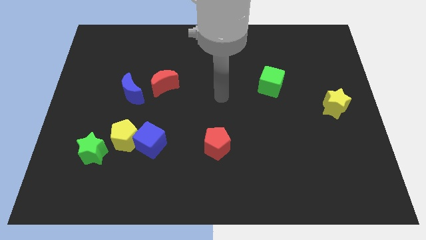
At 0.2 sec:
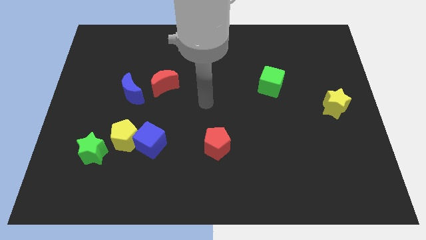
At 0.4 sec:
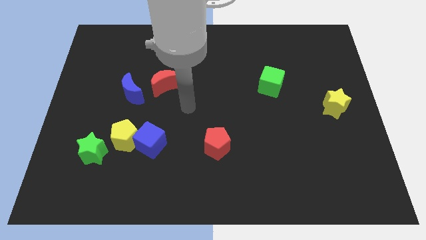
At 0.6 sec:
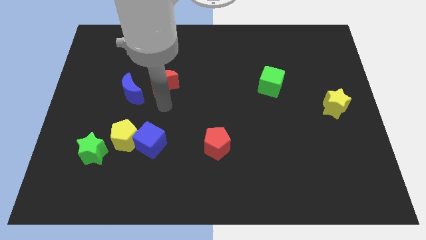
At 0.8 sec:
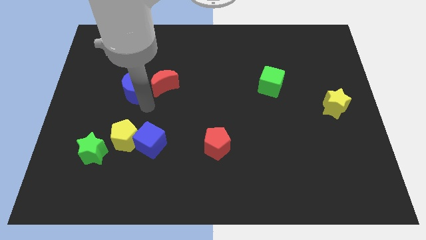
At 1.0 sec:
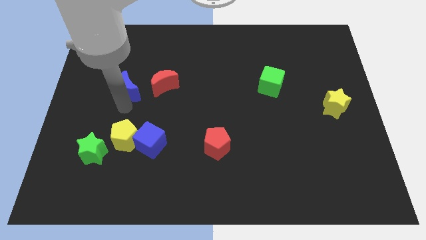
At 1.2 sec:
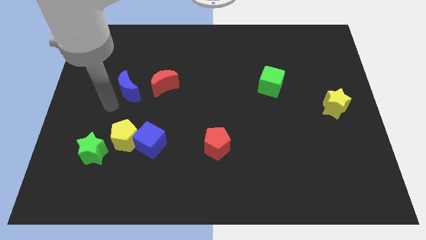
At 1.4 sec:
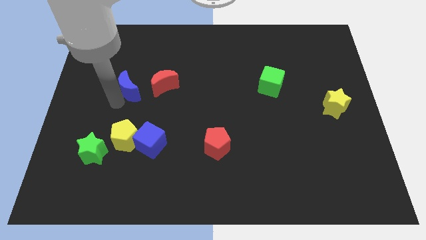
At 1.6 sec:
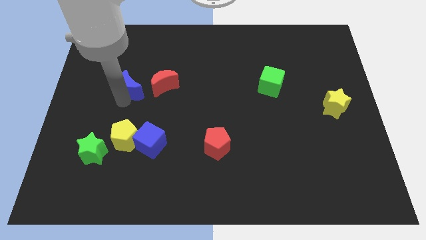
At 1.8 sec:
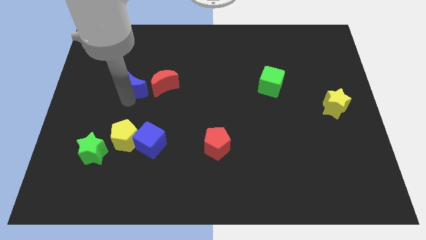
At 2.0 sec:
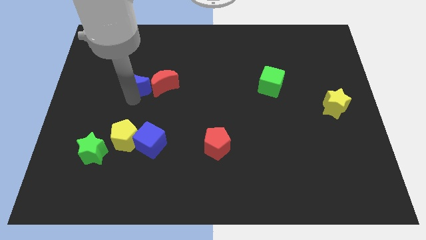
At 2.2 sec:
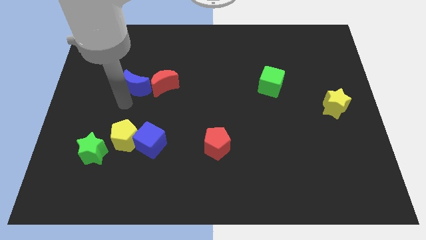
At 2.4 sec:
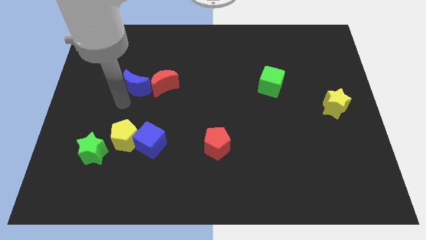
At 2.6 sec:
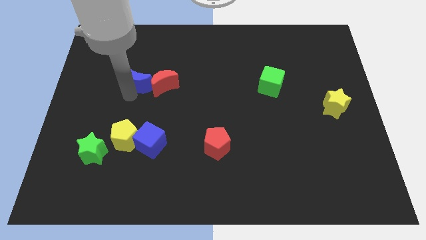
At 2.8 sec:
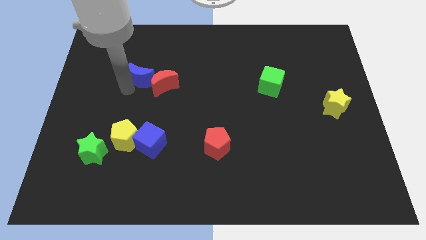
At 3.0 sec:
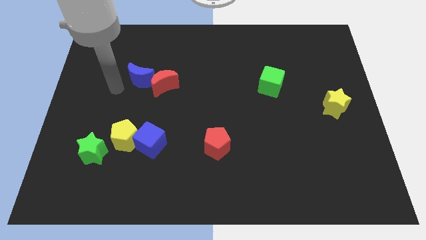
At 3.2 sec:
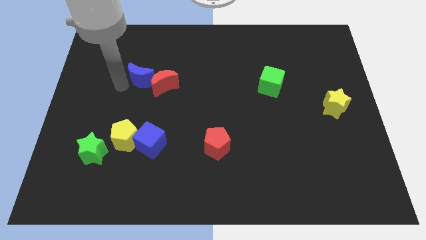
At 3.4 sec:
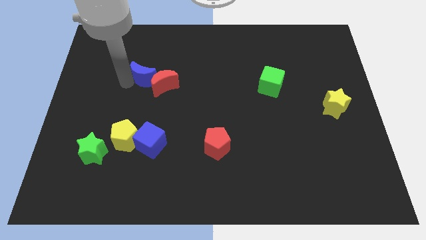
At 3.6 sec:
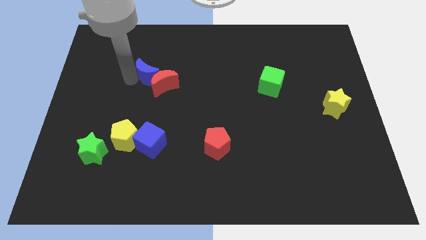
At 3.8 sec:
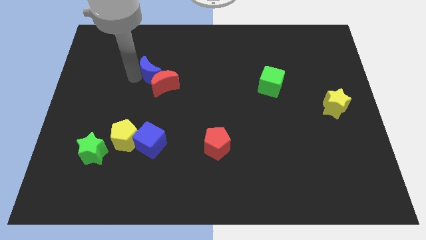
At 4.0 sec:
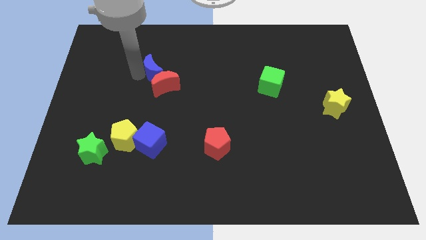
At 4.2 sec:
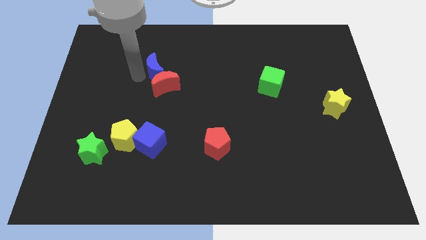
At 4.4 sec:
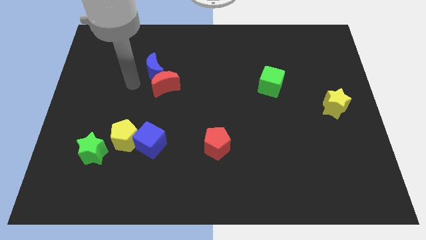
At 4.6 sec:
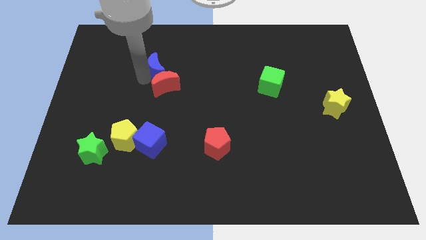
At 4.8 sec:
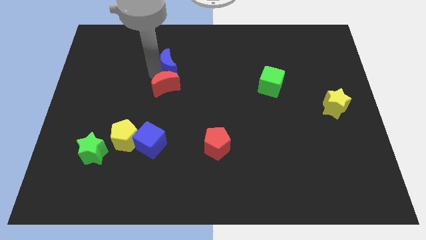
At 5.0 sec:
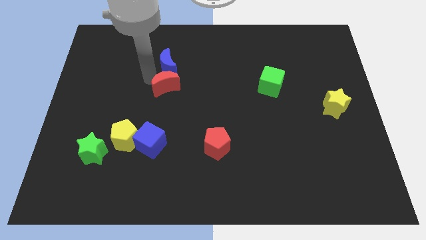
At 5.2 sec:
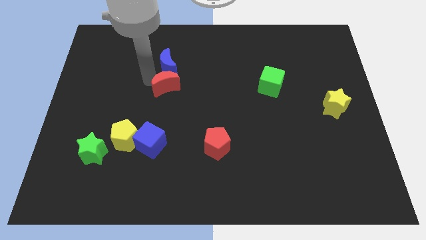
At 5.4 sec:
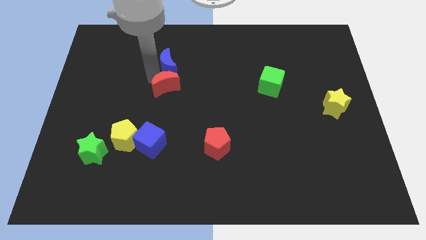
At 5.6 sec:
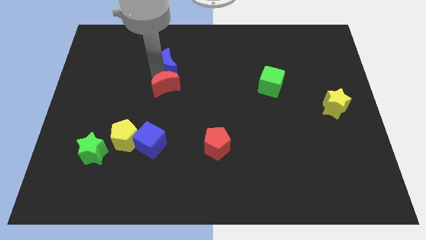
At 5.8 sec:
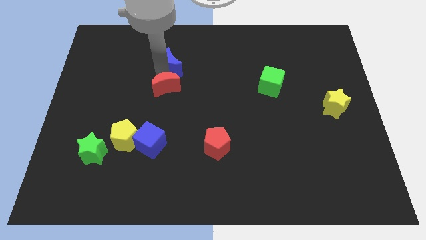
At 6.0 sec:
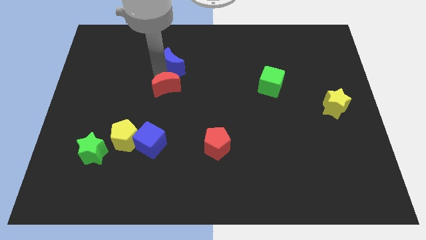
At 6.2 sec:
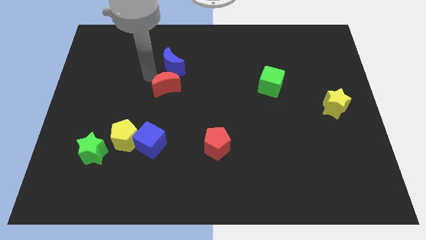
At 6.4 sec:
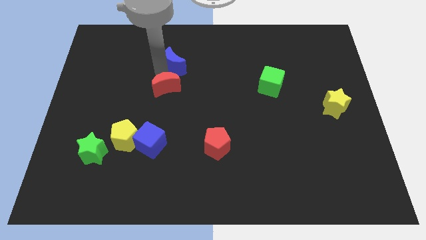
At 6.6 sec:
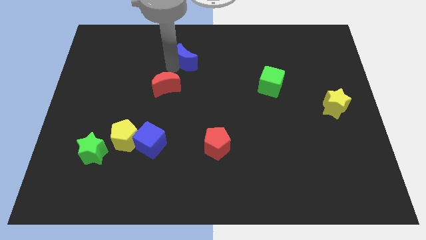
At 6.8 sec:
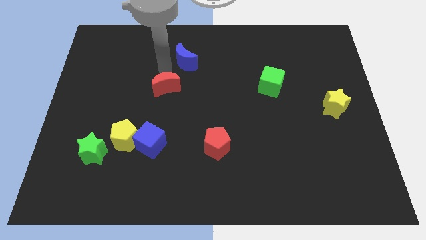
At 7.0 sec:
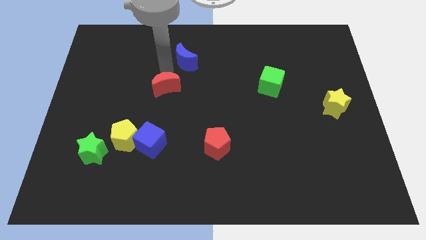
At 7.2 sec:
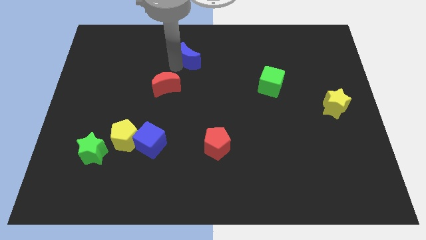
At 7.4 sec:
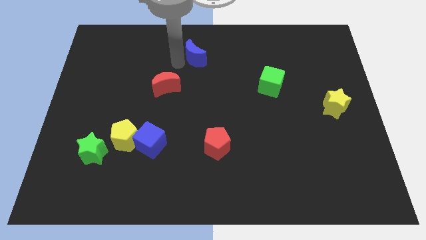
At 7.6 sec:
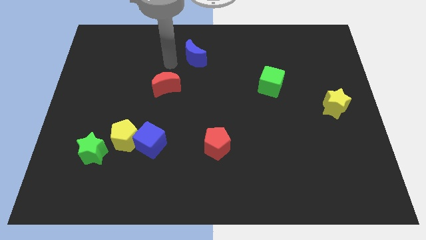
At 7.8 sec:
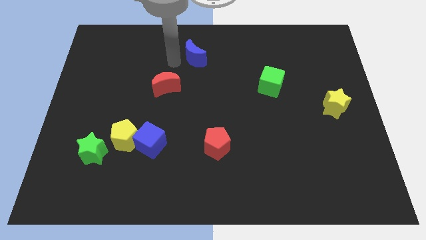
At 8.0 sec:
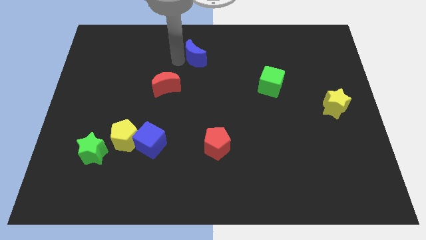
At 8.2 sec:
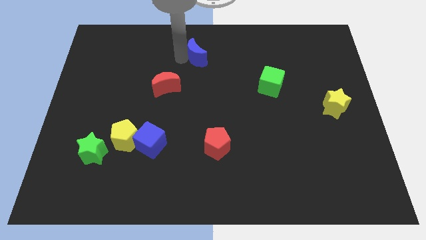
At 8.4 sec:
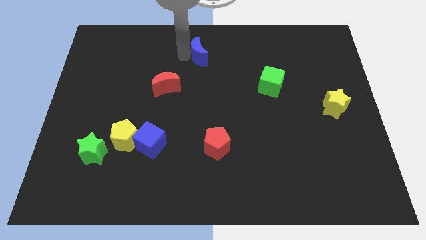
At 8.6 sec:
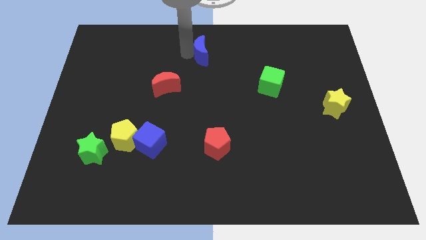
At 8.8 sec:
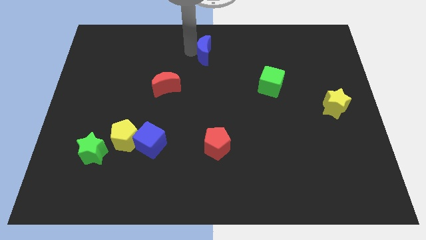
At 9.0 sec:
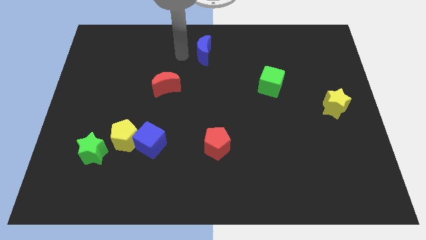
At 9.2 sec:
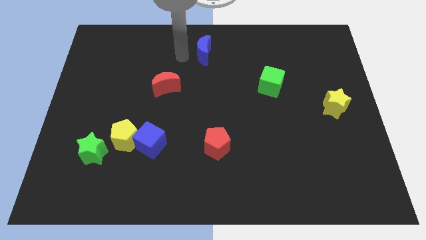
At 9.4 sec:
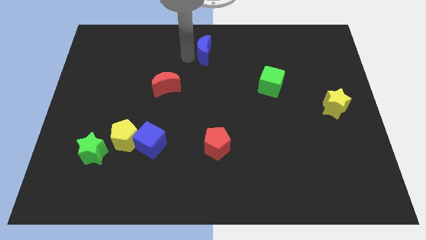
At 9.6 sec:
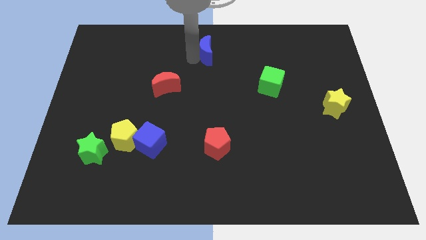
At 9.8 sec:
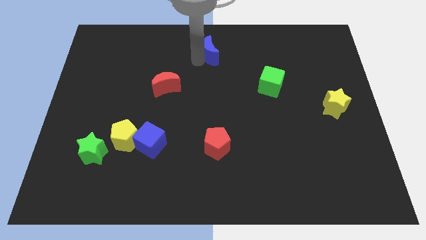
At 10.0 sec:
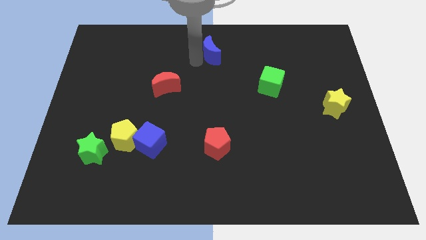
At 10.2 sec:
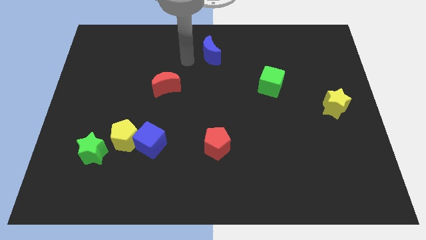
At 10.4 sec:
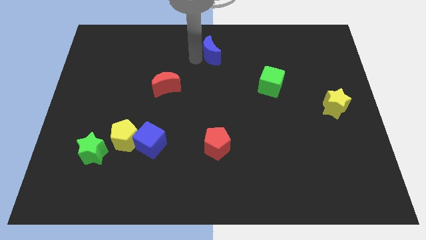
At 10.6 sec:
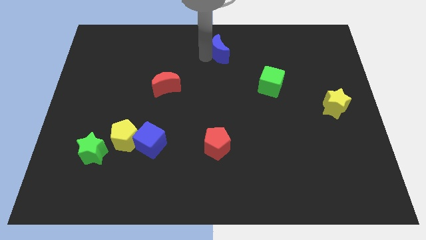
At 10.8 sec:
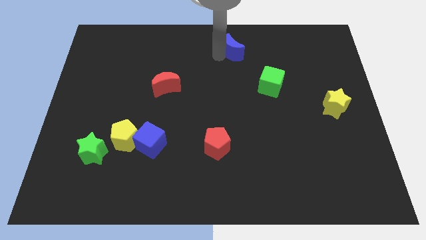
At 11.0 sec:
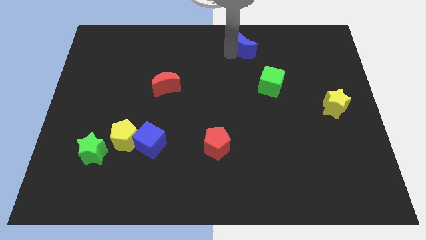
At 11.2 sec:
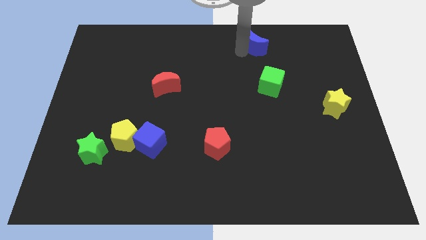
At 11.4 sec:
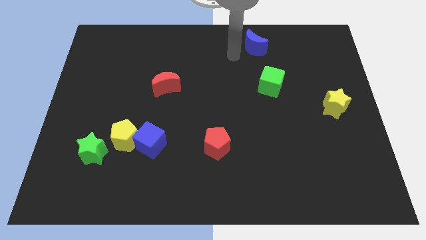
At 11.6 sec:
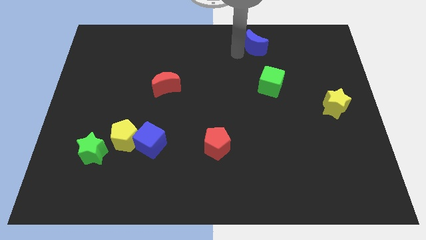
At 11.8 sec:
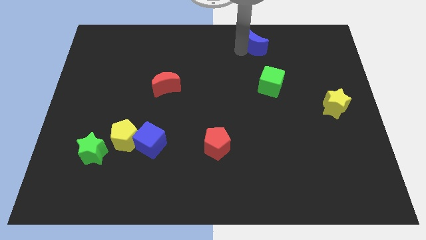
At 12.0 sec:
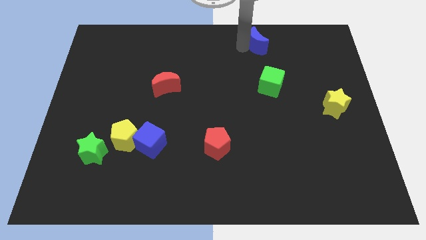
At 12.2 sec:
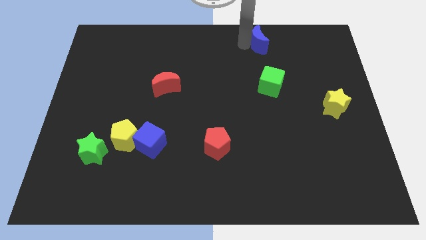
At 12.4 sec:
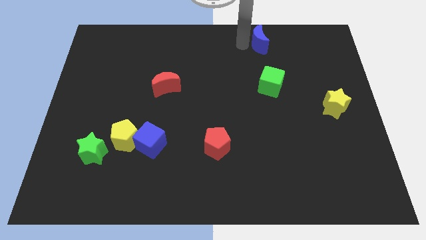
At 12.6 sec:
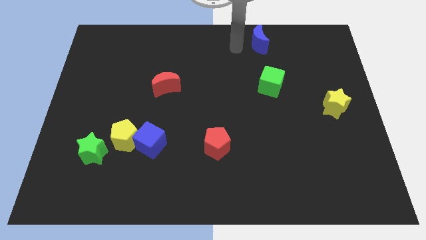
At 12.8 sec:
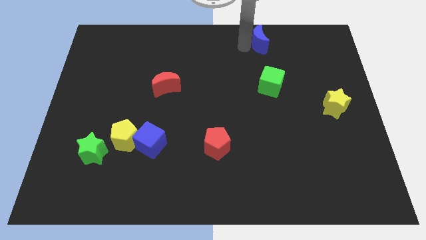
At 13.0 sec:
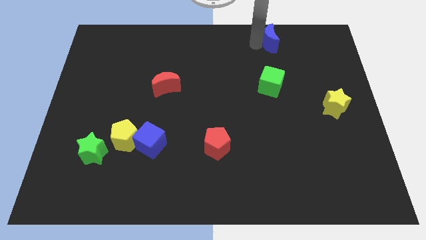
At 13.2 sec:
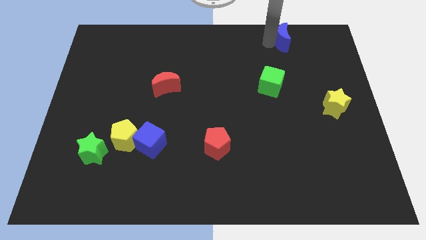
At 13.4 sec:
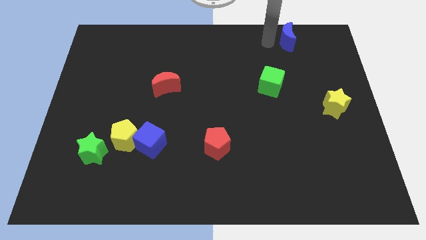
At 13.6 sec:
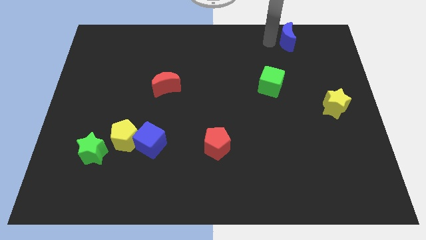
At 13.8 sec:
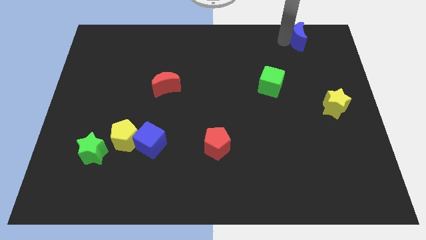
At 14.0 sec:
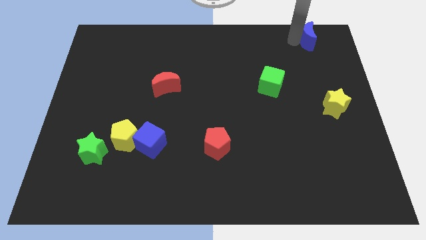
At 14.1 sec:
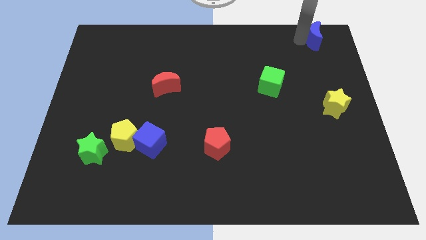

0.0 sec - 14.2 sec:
move the blue moon to the top right of the board
